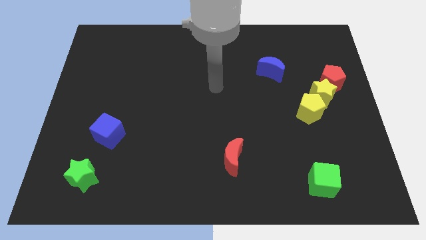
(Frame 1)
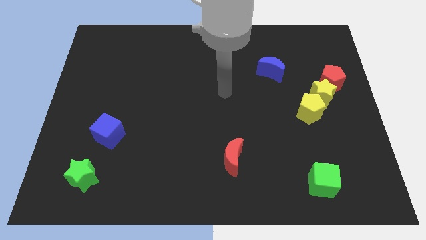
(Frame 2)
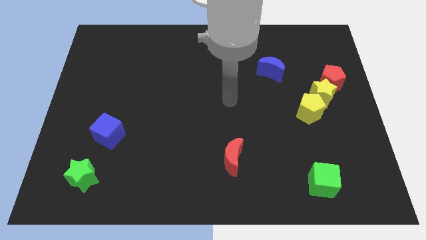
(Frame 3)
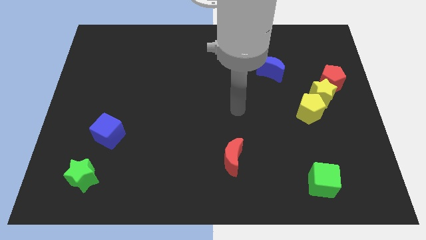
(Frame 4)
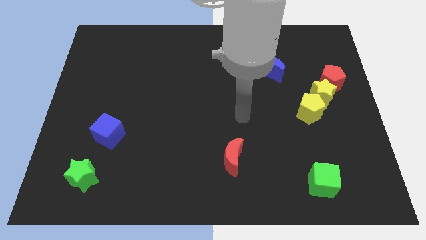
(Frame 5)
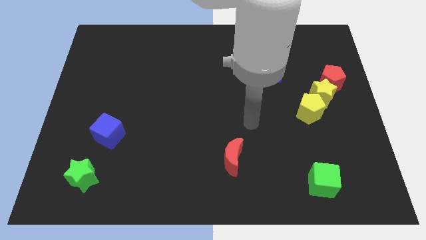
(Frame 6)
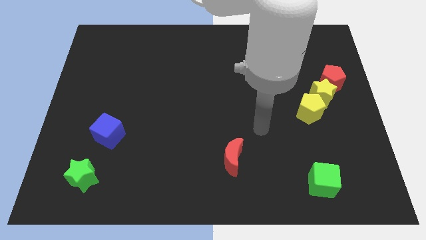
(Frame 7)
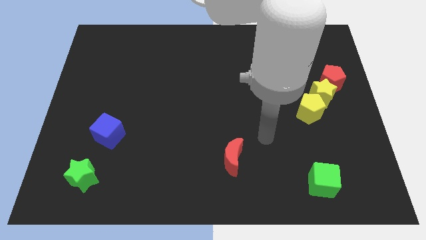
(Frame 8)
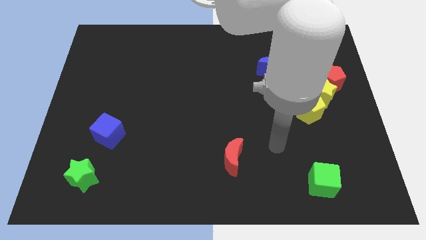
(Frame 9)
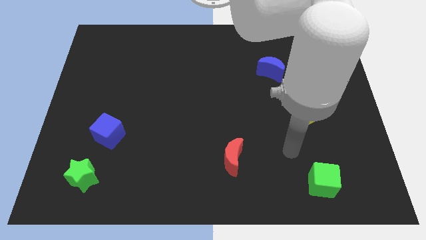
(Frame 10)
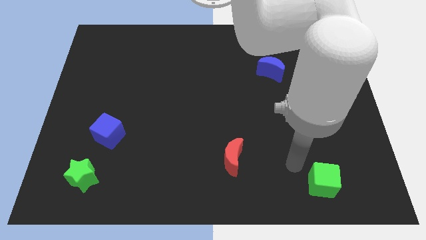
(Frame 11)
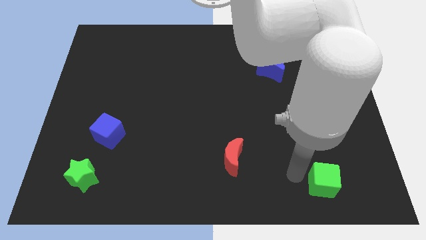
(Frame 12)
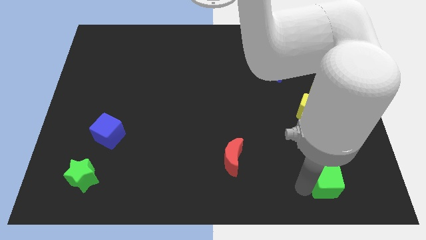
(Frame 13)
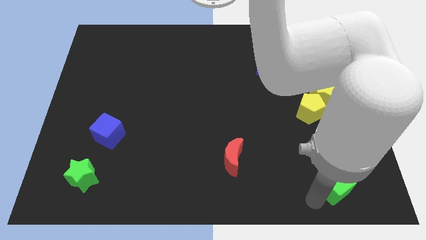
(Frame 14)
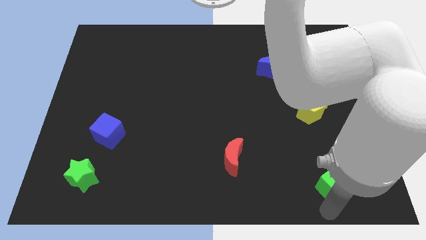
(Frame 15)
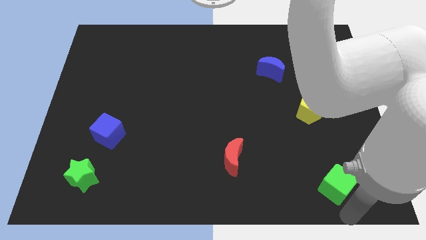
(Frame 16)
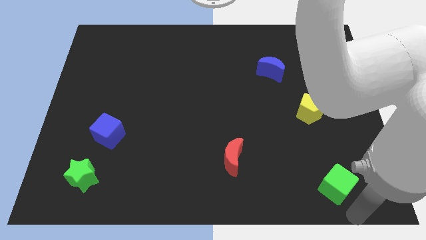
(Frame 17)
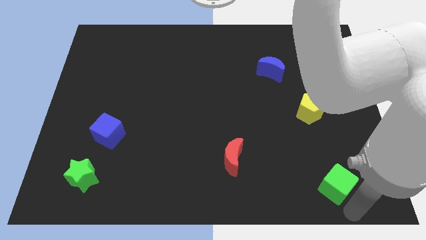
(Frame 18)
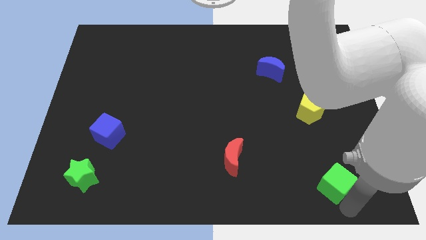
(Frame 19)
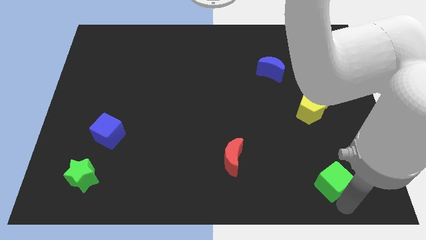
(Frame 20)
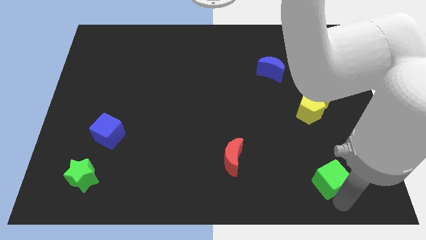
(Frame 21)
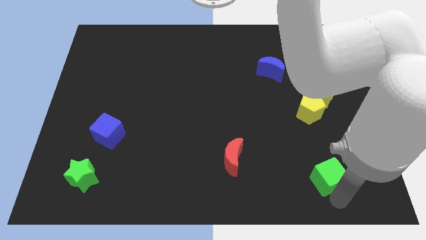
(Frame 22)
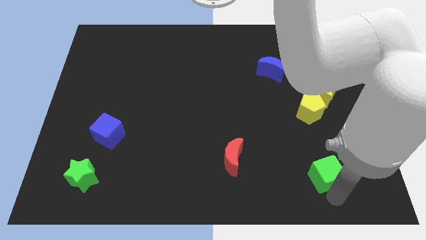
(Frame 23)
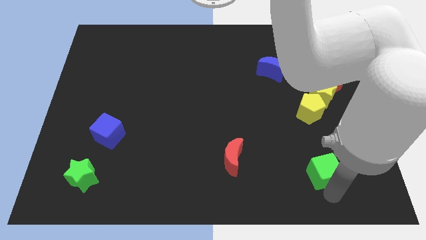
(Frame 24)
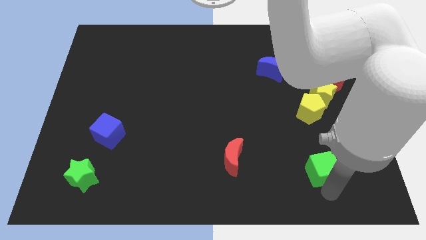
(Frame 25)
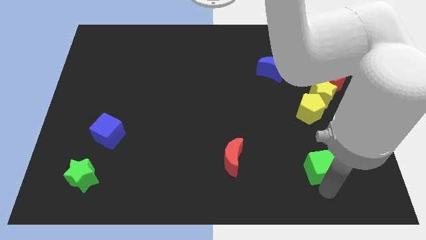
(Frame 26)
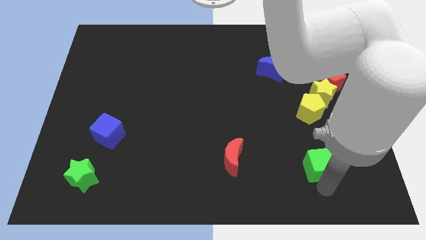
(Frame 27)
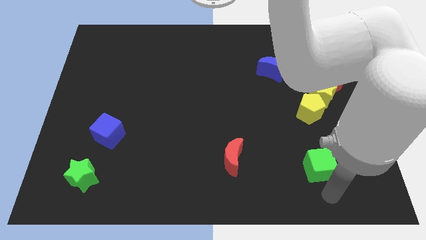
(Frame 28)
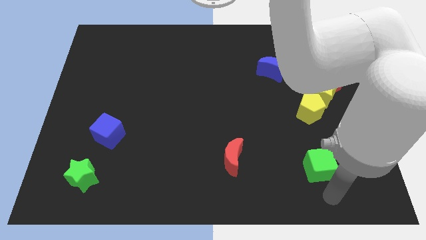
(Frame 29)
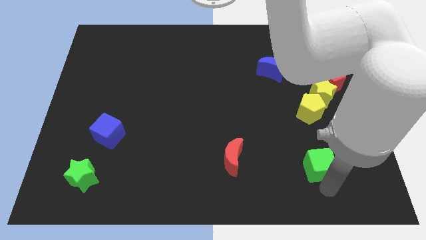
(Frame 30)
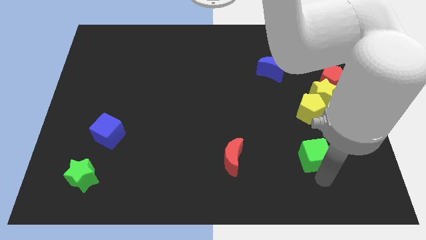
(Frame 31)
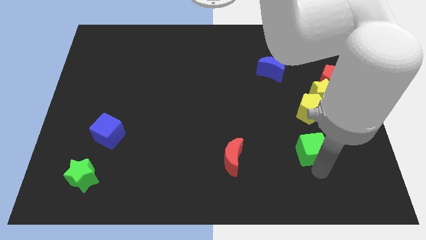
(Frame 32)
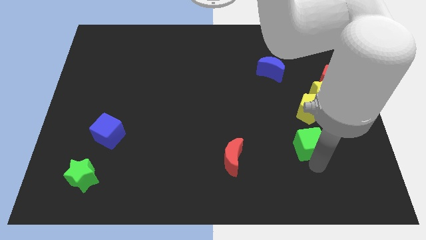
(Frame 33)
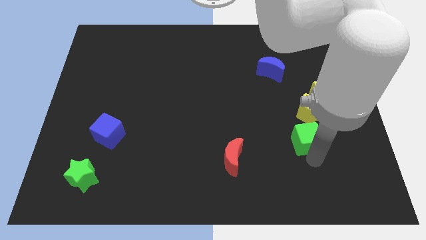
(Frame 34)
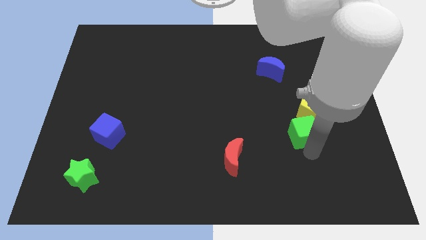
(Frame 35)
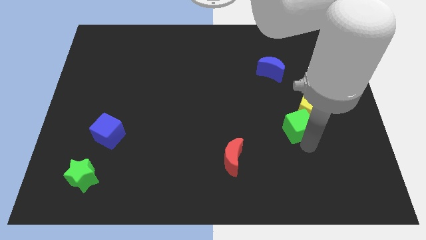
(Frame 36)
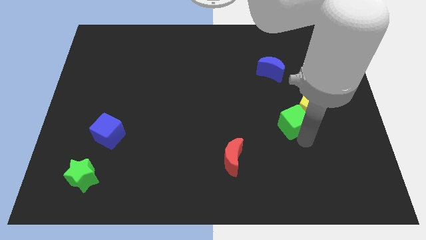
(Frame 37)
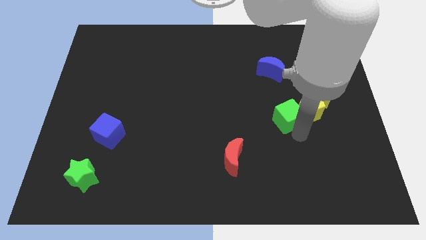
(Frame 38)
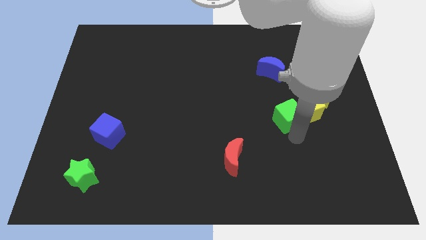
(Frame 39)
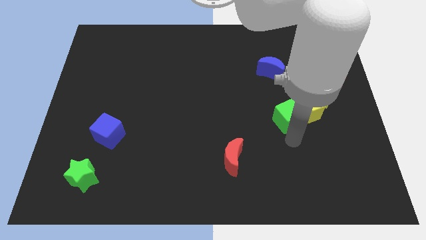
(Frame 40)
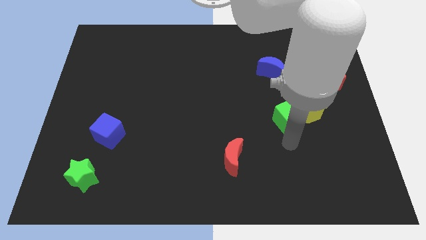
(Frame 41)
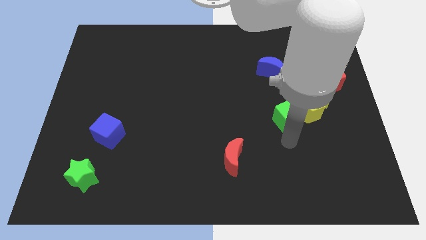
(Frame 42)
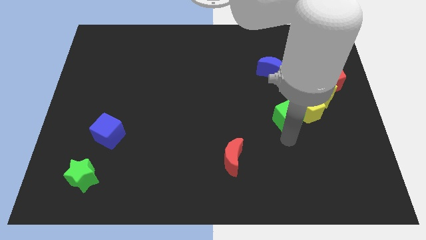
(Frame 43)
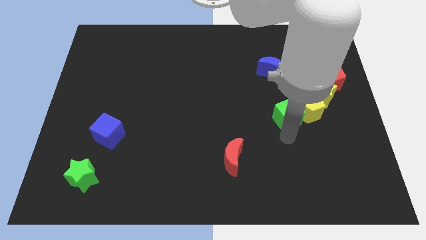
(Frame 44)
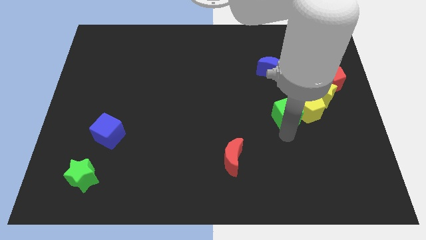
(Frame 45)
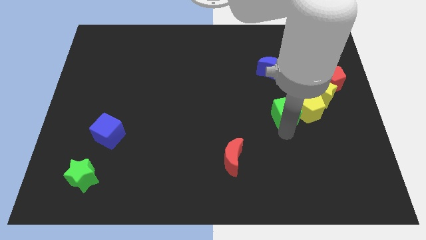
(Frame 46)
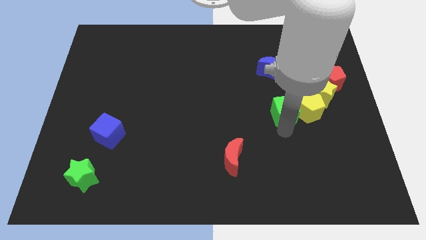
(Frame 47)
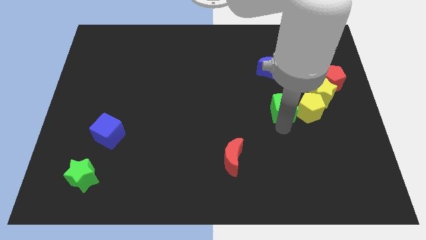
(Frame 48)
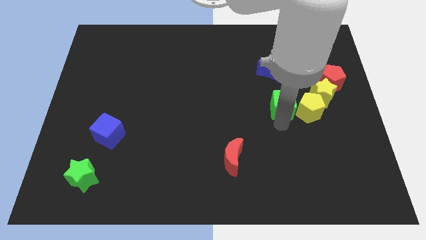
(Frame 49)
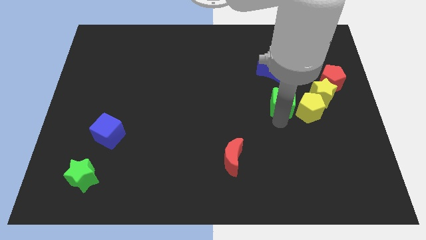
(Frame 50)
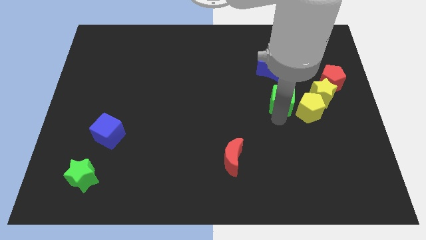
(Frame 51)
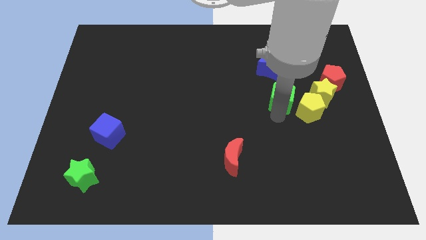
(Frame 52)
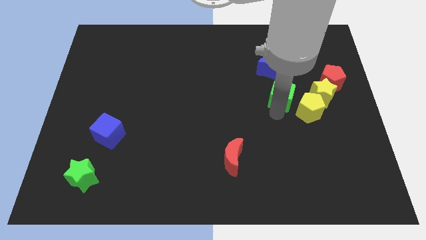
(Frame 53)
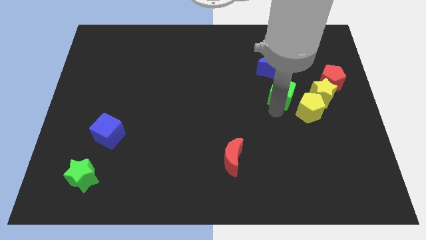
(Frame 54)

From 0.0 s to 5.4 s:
put the green cube to the bottom right of the blue moon

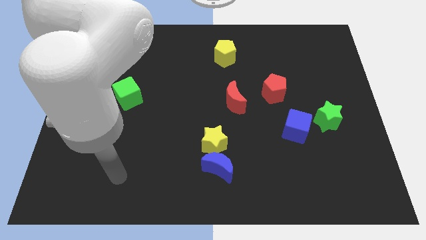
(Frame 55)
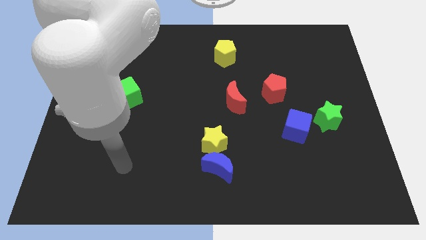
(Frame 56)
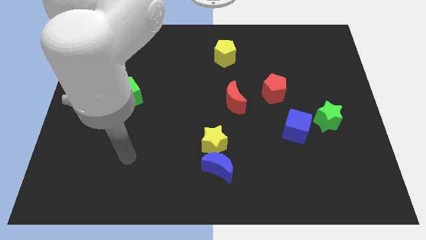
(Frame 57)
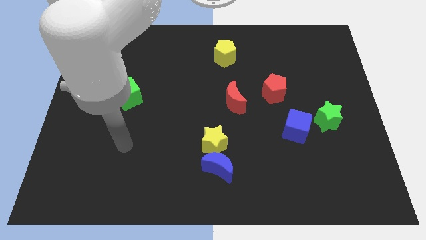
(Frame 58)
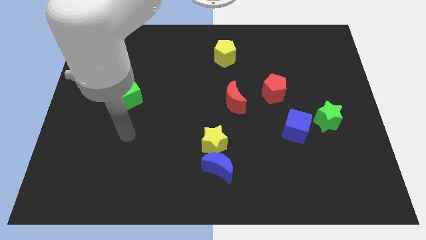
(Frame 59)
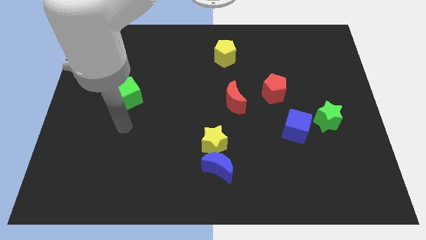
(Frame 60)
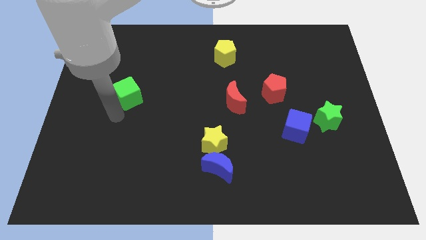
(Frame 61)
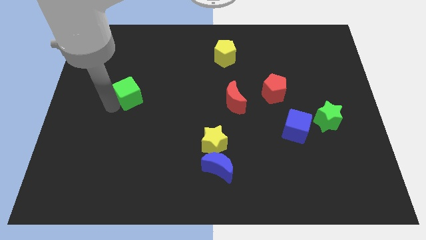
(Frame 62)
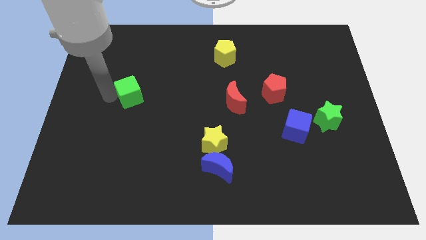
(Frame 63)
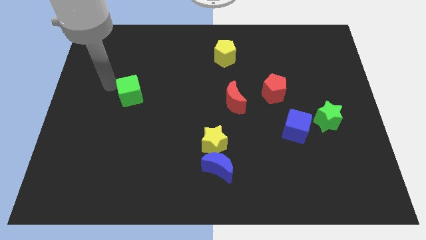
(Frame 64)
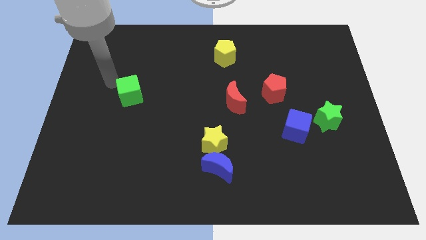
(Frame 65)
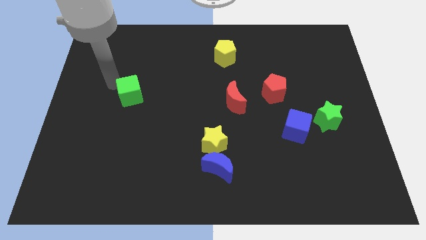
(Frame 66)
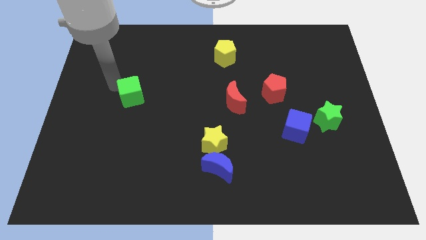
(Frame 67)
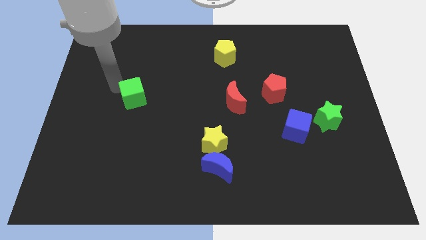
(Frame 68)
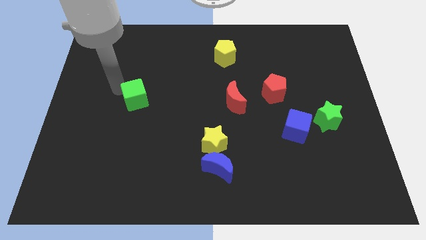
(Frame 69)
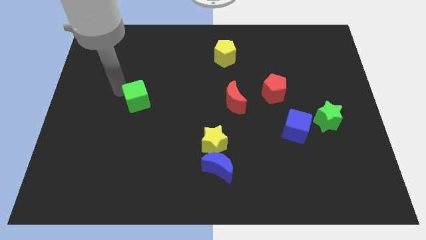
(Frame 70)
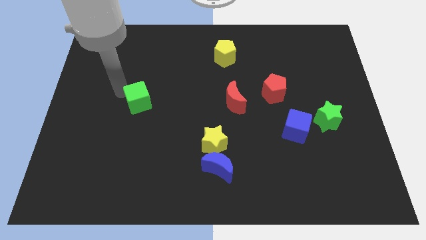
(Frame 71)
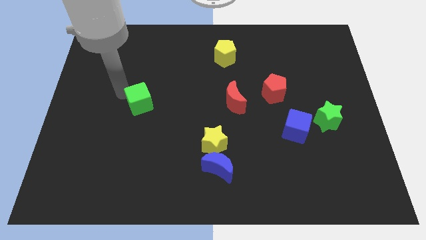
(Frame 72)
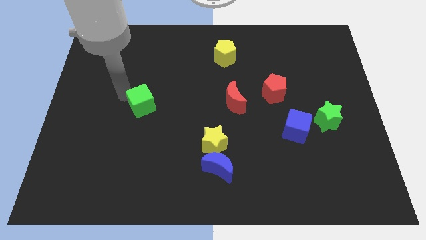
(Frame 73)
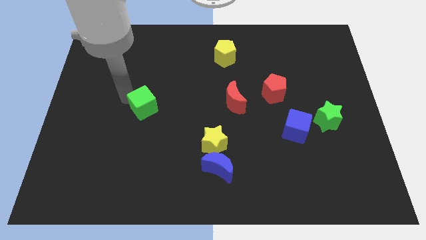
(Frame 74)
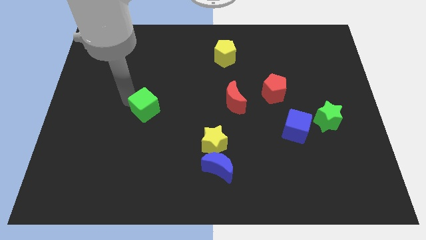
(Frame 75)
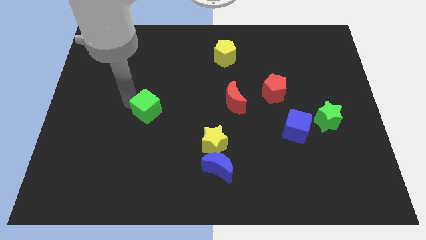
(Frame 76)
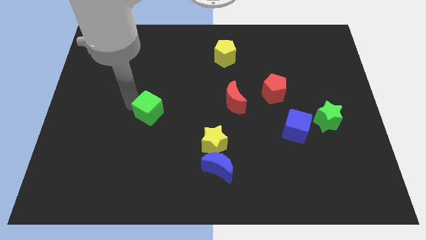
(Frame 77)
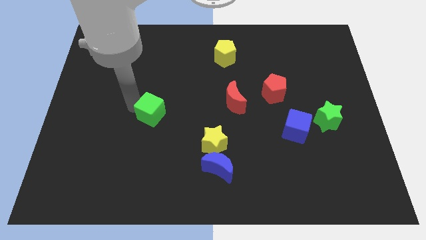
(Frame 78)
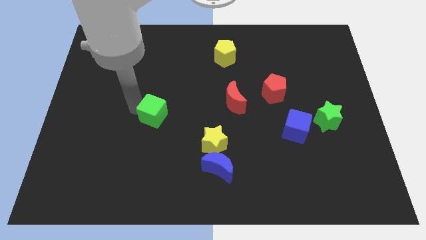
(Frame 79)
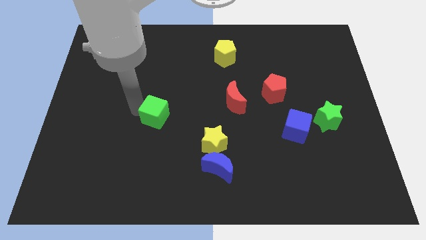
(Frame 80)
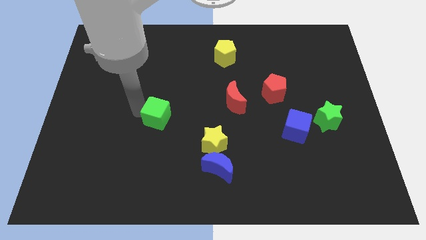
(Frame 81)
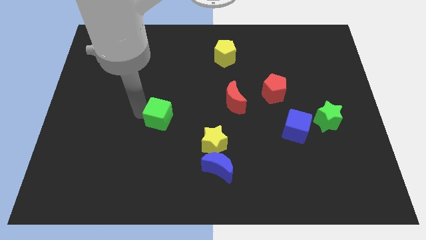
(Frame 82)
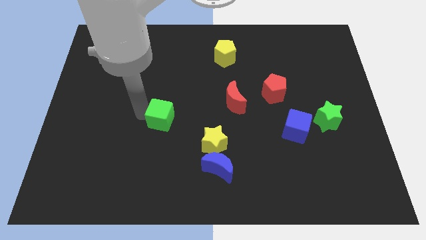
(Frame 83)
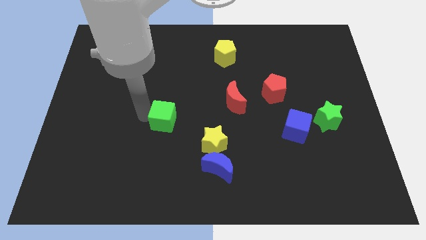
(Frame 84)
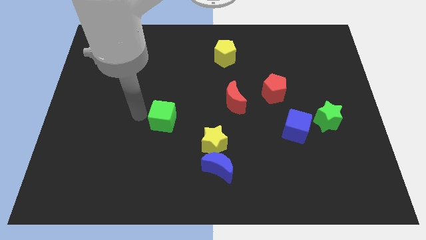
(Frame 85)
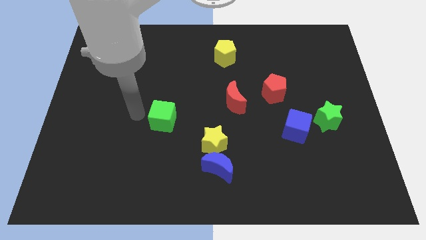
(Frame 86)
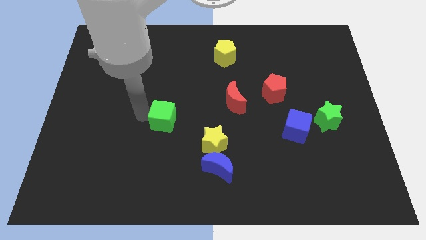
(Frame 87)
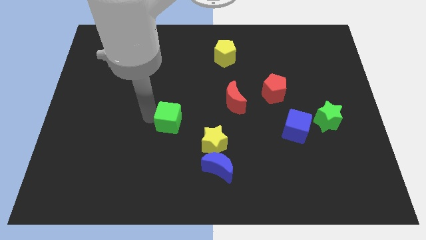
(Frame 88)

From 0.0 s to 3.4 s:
put the green cube to the top left side of the yellow star
